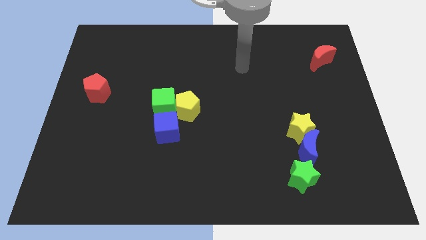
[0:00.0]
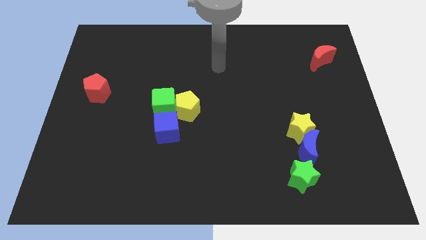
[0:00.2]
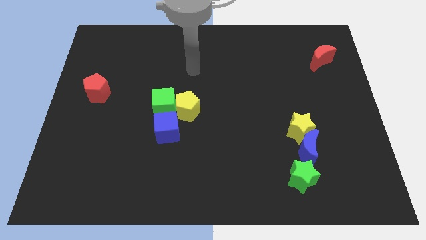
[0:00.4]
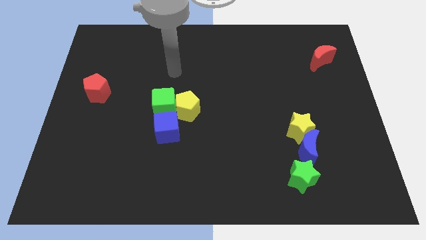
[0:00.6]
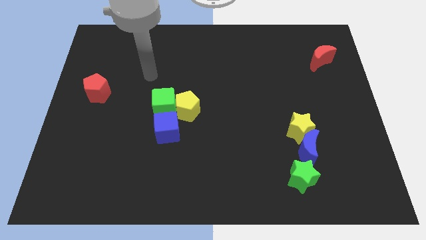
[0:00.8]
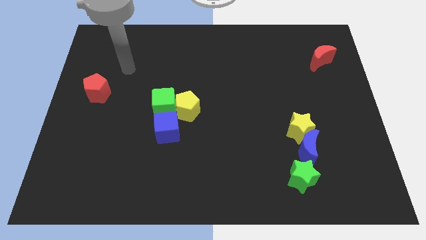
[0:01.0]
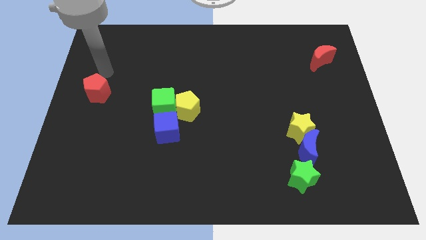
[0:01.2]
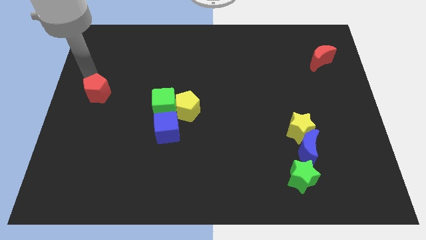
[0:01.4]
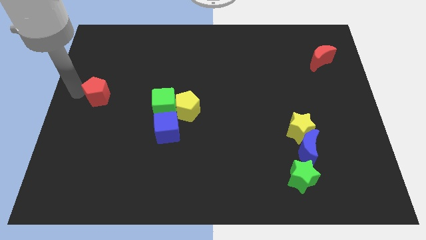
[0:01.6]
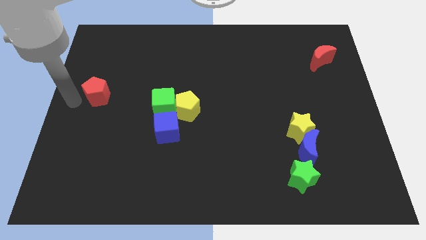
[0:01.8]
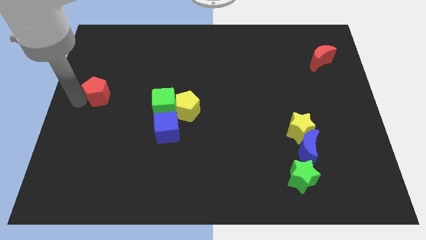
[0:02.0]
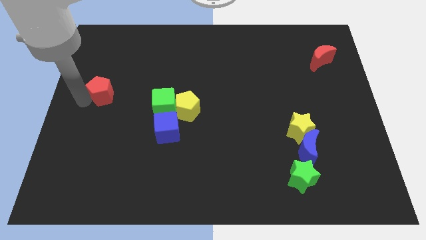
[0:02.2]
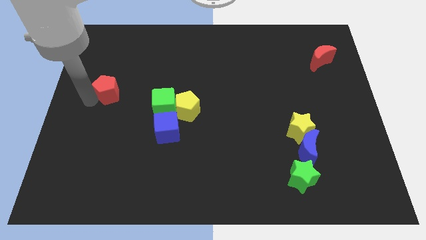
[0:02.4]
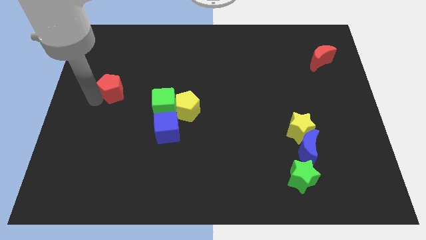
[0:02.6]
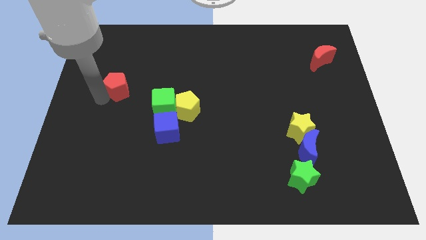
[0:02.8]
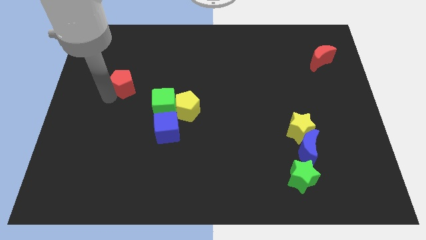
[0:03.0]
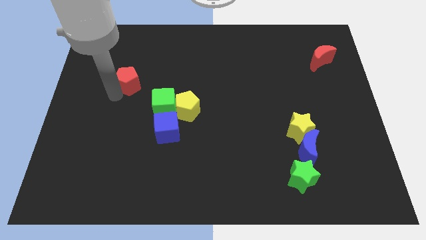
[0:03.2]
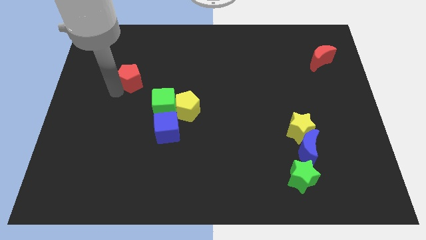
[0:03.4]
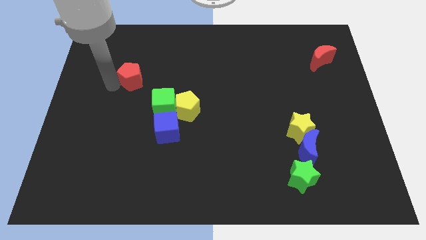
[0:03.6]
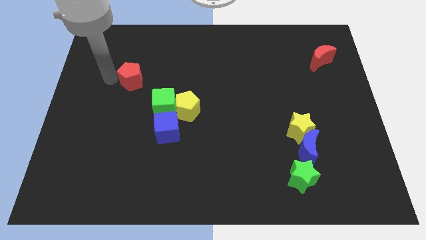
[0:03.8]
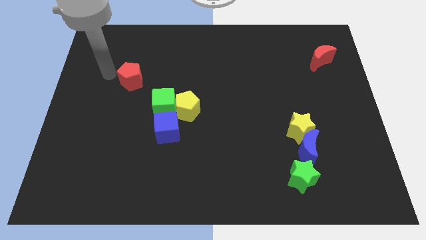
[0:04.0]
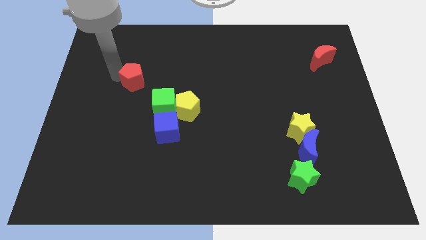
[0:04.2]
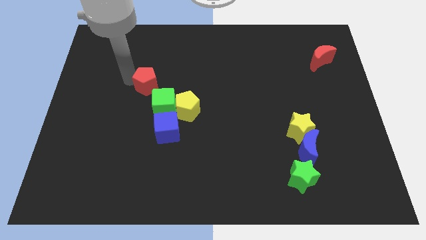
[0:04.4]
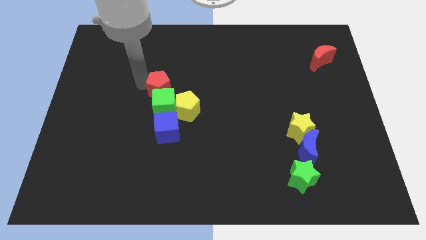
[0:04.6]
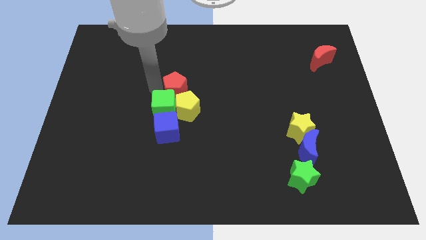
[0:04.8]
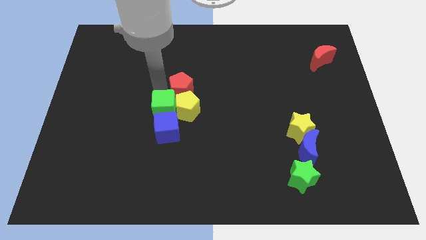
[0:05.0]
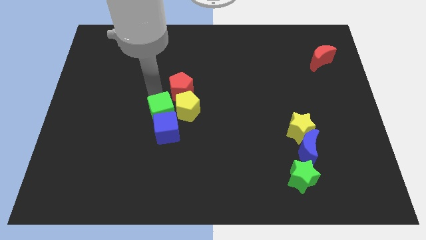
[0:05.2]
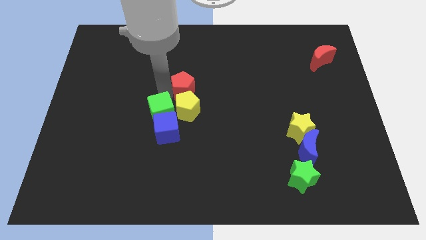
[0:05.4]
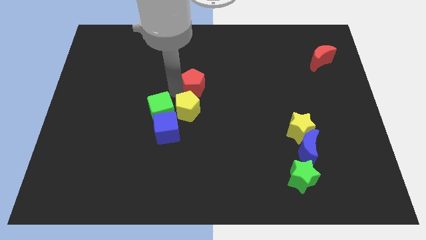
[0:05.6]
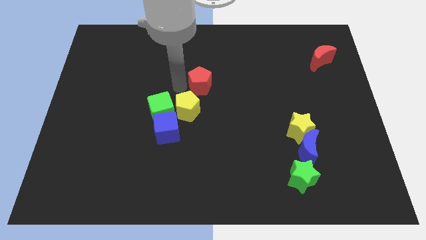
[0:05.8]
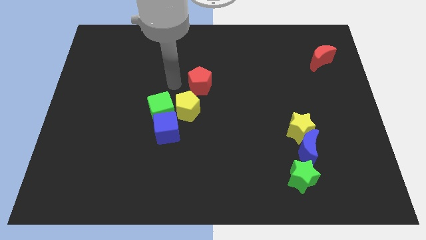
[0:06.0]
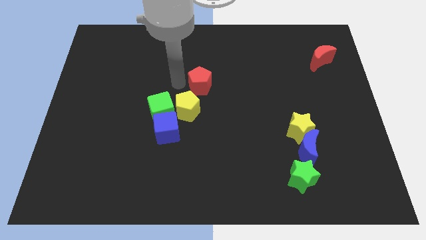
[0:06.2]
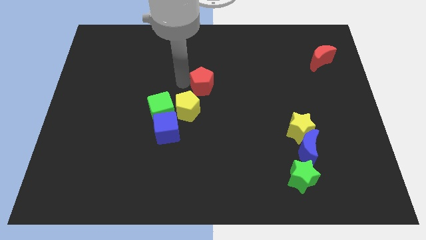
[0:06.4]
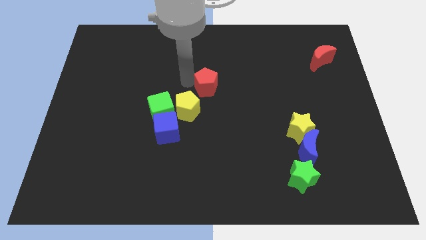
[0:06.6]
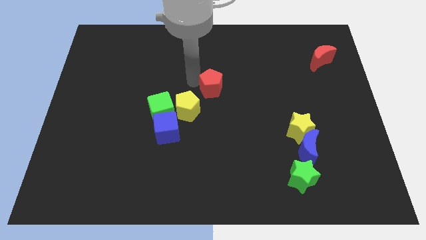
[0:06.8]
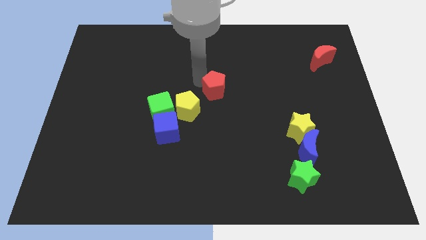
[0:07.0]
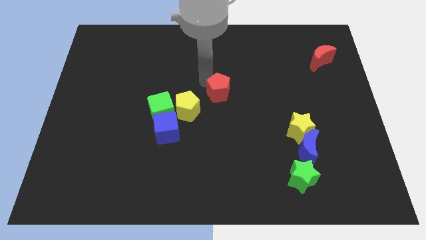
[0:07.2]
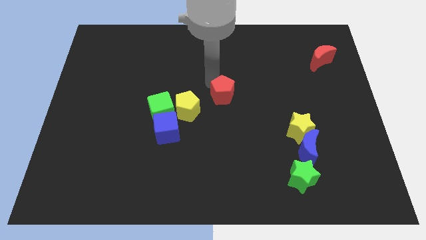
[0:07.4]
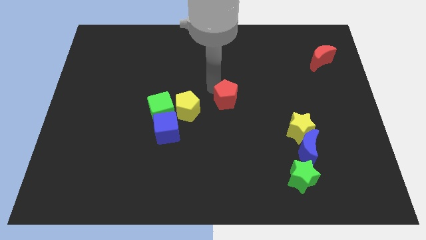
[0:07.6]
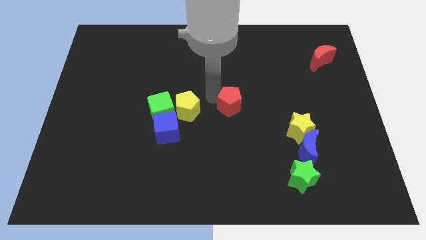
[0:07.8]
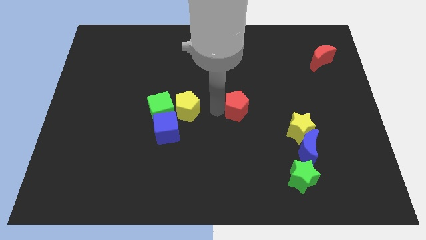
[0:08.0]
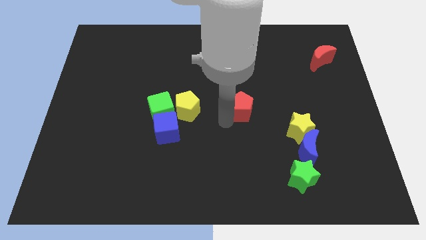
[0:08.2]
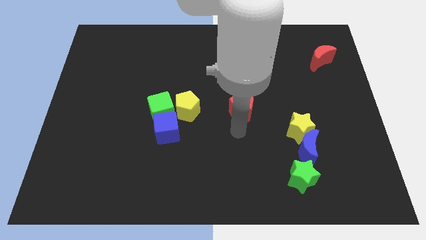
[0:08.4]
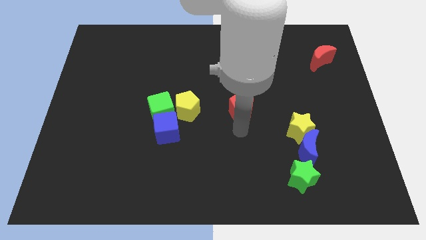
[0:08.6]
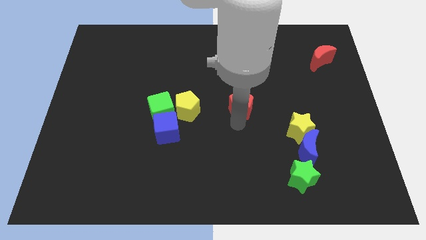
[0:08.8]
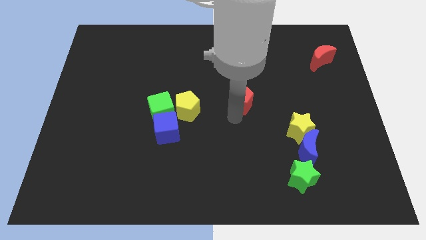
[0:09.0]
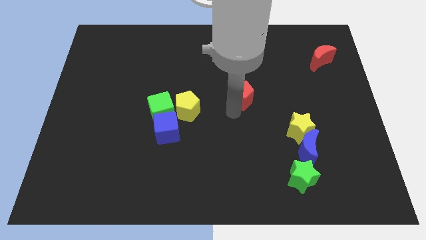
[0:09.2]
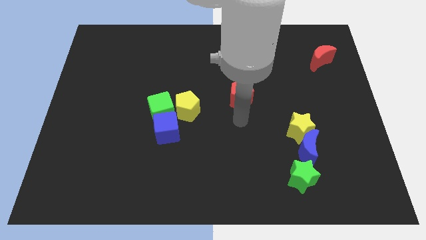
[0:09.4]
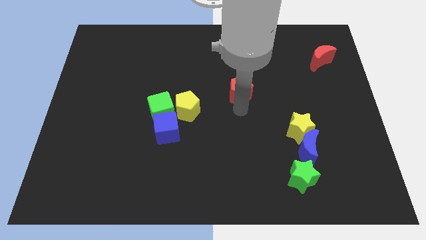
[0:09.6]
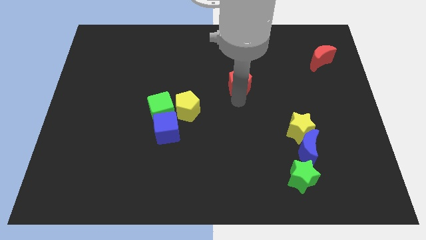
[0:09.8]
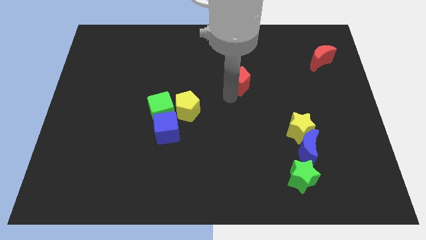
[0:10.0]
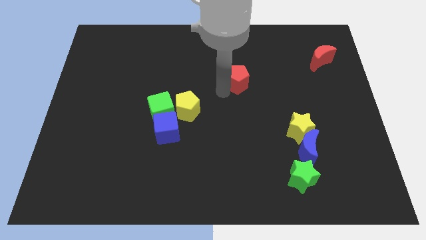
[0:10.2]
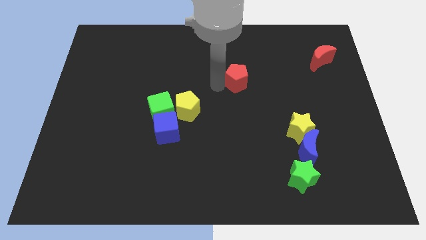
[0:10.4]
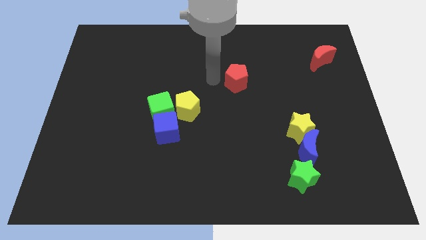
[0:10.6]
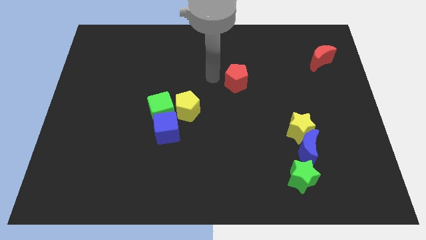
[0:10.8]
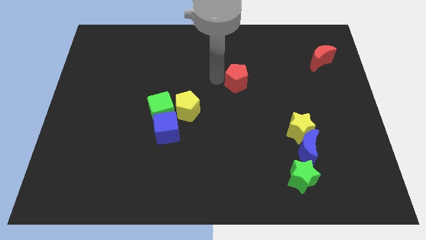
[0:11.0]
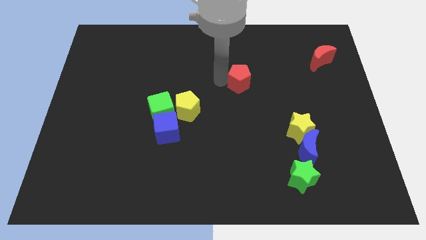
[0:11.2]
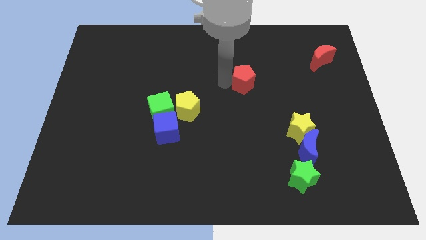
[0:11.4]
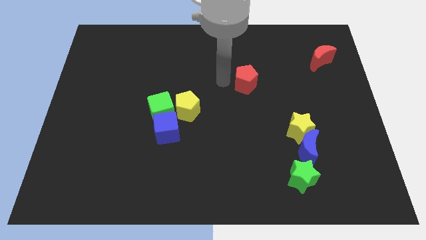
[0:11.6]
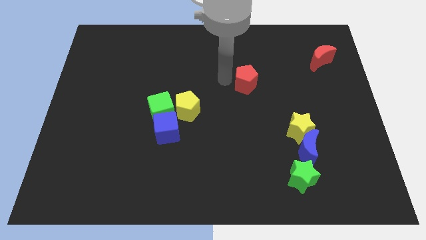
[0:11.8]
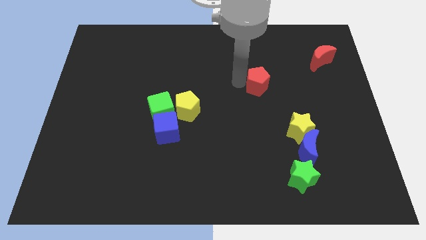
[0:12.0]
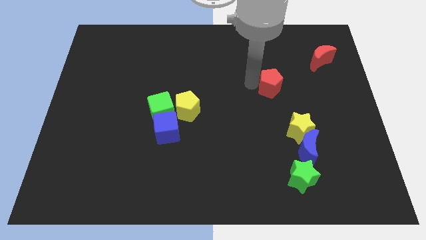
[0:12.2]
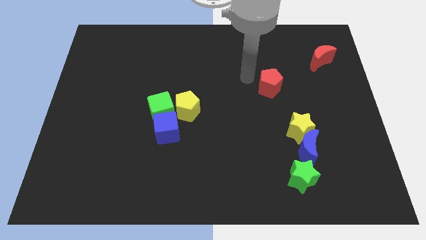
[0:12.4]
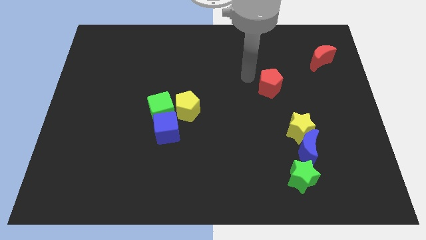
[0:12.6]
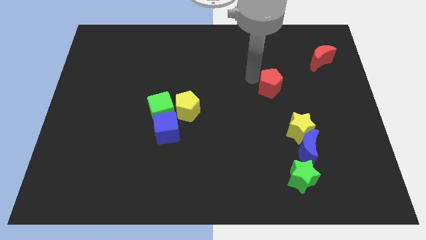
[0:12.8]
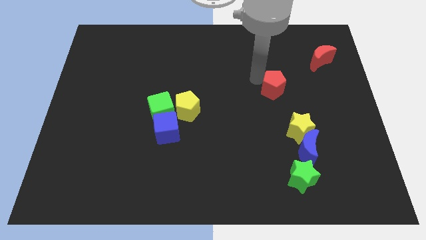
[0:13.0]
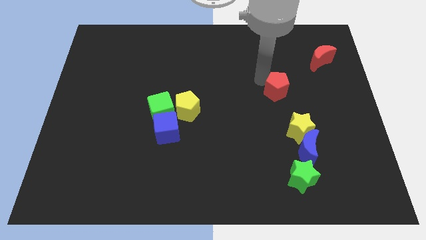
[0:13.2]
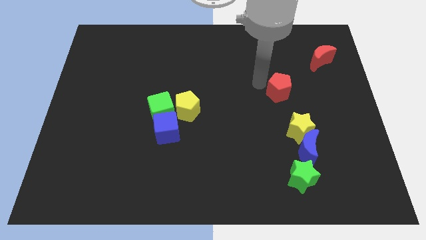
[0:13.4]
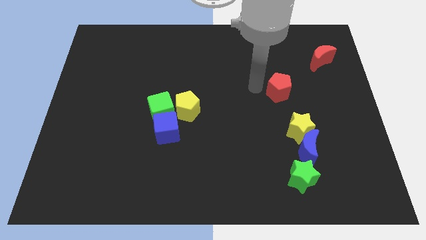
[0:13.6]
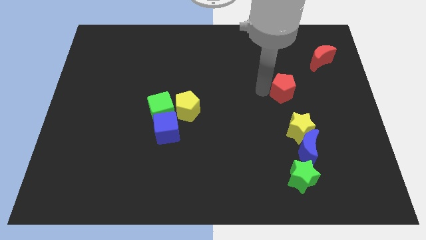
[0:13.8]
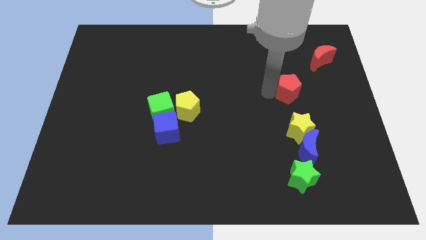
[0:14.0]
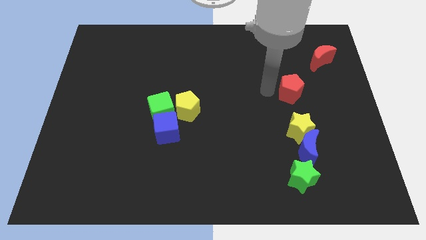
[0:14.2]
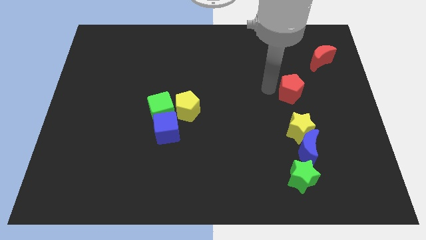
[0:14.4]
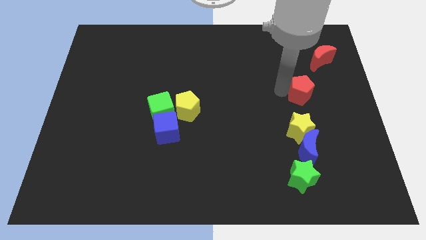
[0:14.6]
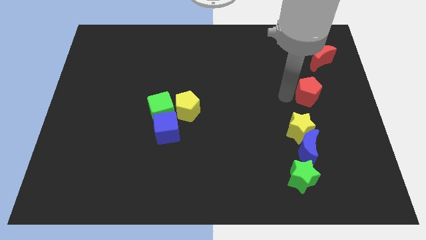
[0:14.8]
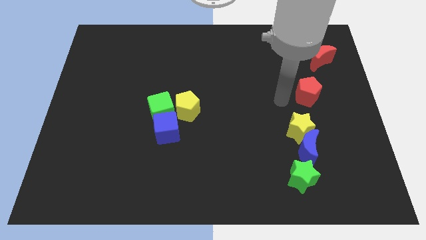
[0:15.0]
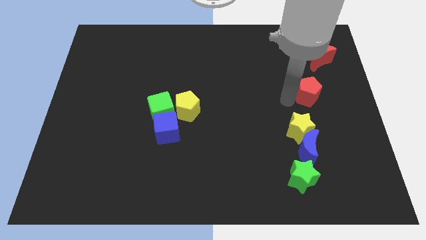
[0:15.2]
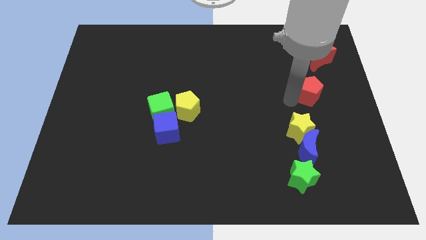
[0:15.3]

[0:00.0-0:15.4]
put the red pentagon below the red moon
